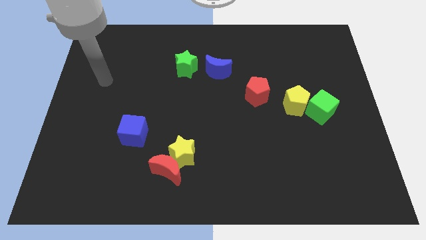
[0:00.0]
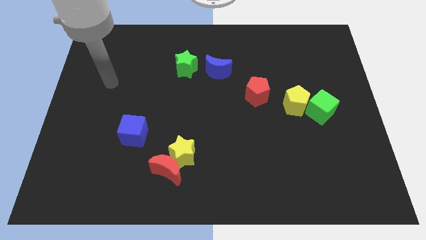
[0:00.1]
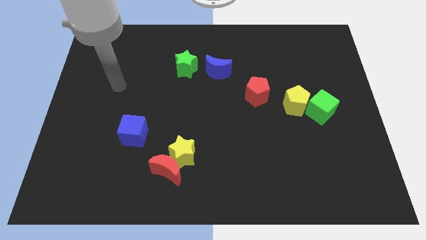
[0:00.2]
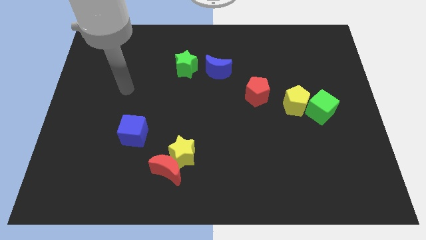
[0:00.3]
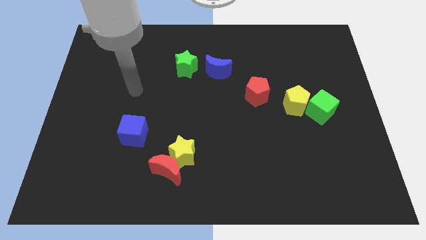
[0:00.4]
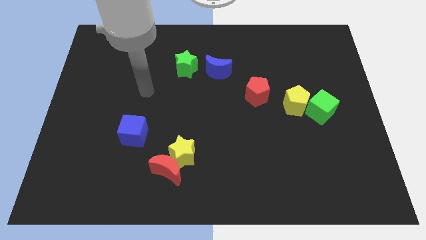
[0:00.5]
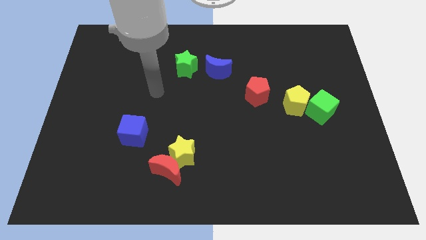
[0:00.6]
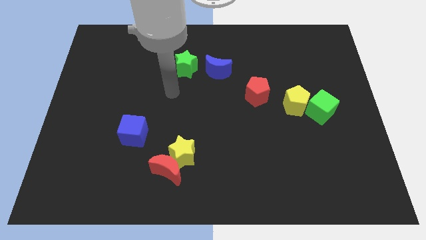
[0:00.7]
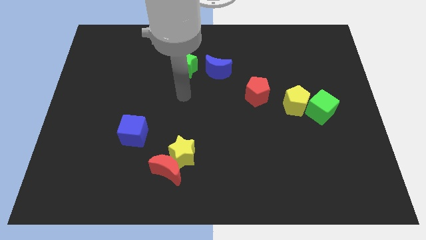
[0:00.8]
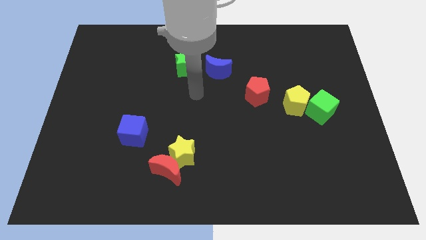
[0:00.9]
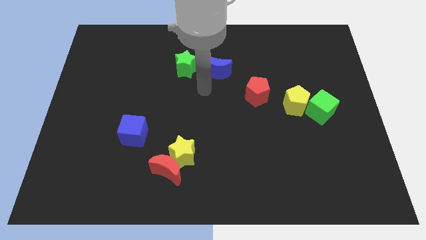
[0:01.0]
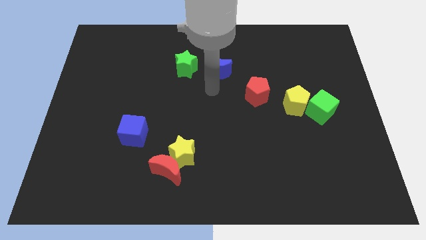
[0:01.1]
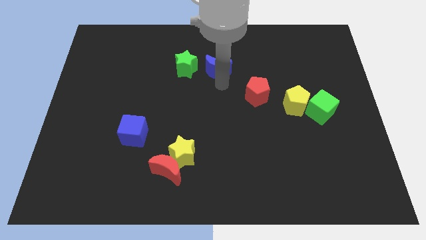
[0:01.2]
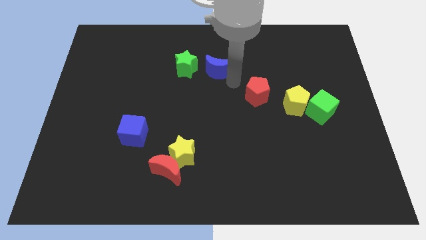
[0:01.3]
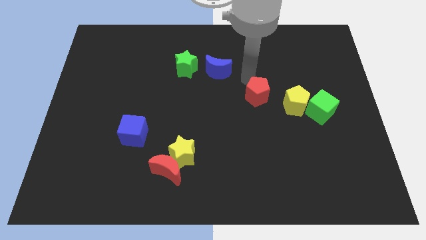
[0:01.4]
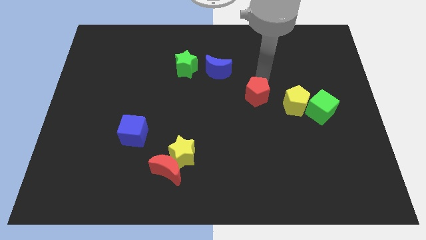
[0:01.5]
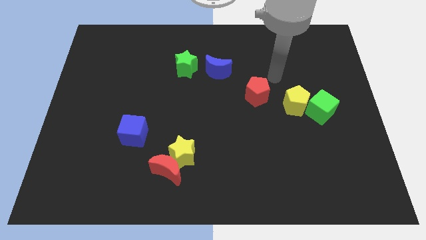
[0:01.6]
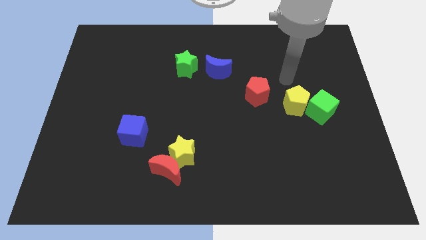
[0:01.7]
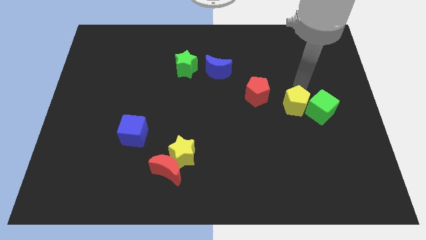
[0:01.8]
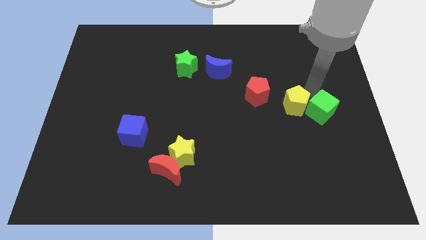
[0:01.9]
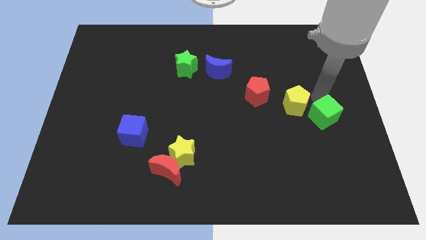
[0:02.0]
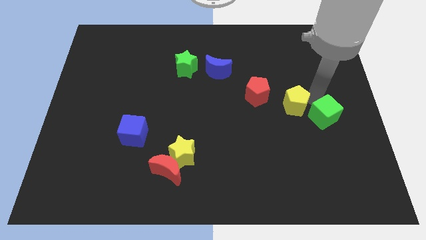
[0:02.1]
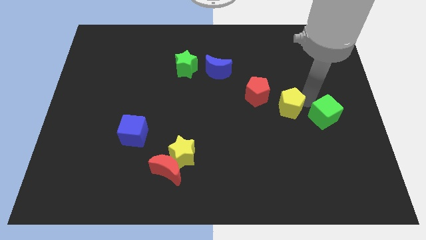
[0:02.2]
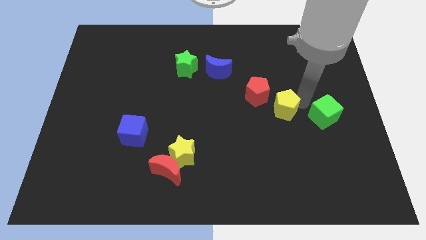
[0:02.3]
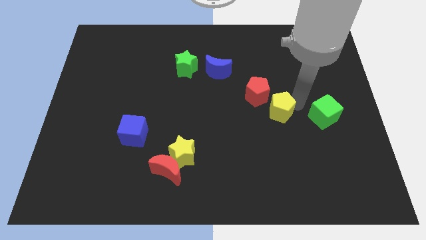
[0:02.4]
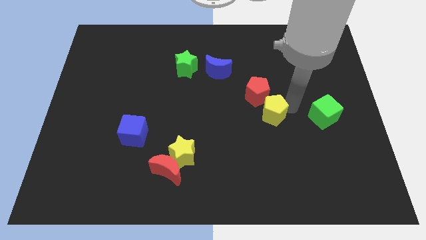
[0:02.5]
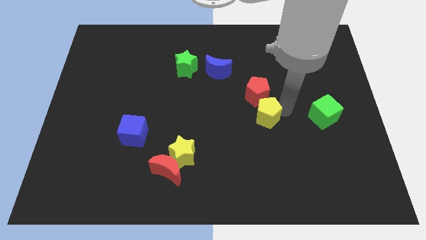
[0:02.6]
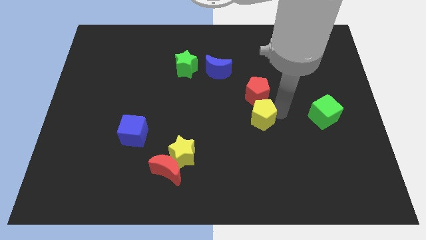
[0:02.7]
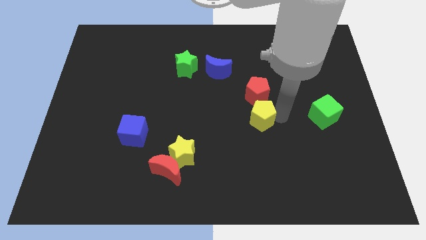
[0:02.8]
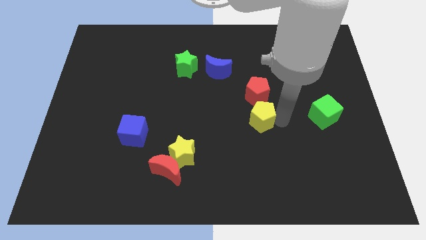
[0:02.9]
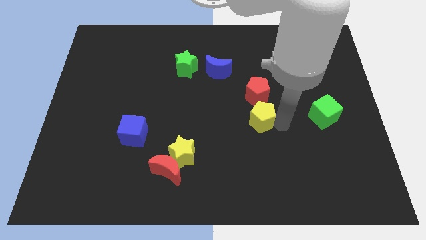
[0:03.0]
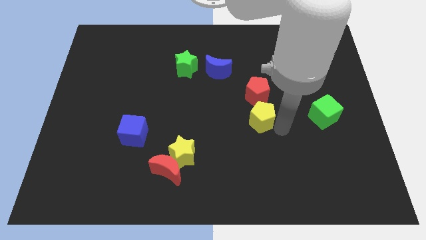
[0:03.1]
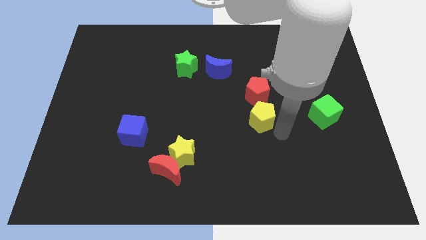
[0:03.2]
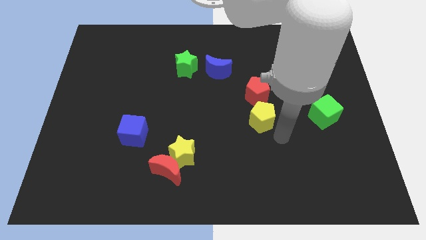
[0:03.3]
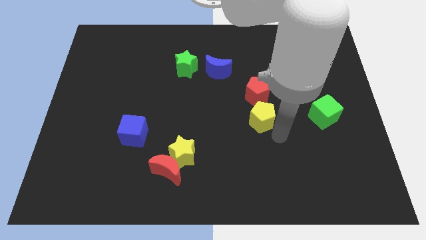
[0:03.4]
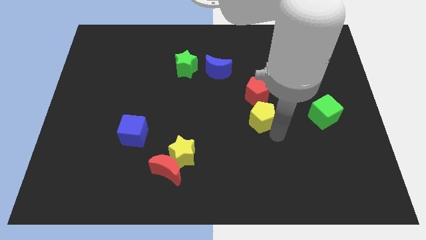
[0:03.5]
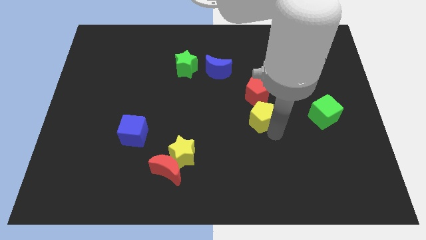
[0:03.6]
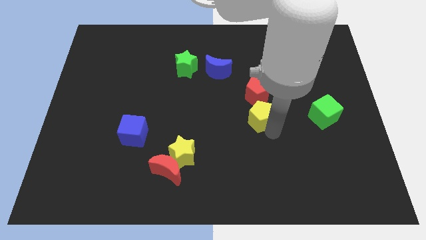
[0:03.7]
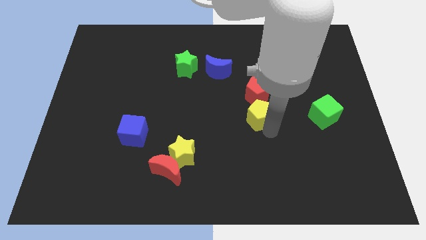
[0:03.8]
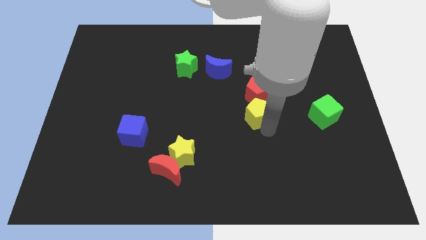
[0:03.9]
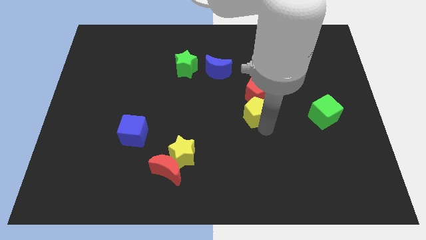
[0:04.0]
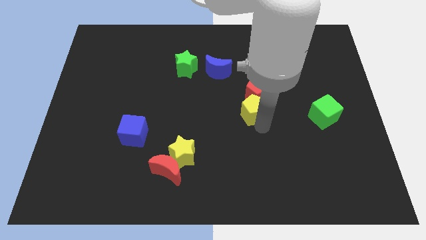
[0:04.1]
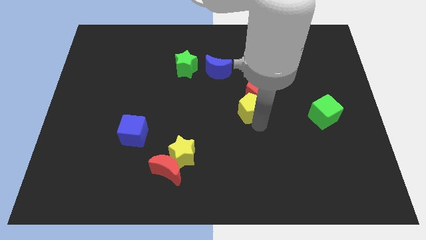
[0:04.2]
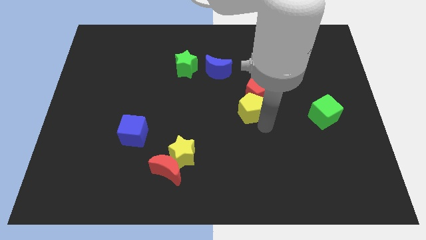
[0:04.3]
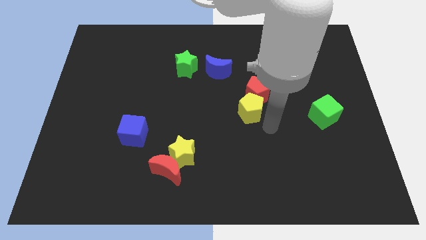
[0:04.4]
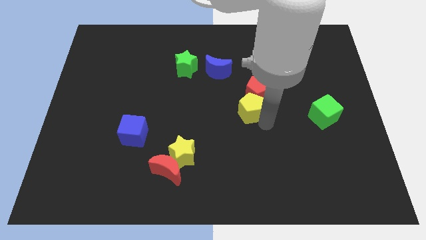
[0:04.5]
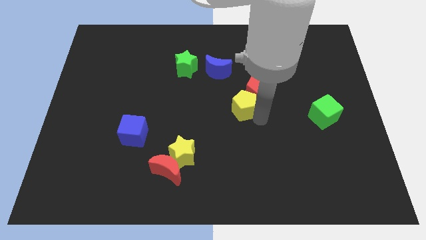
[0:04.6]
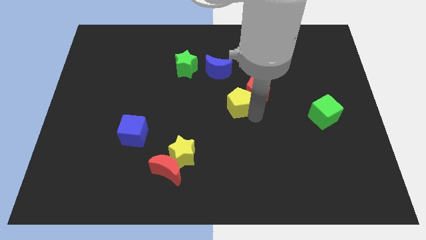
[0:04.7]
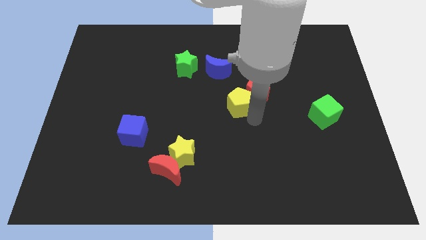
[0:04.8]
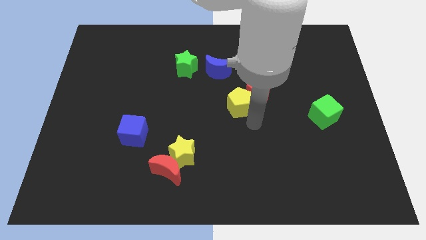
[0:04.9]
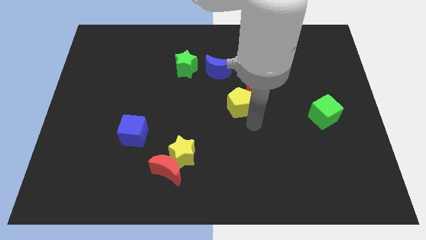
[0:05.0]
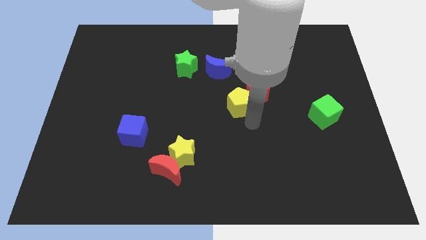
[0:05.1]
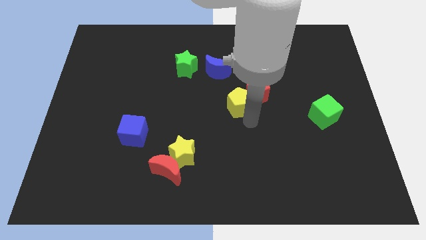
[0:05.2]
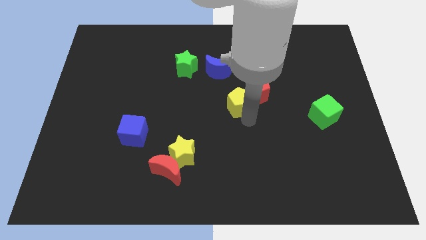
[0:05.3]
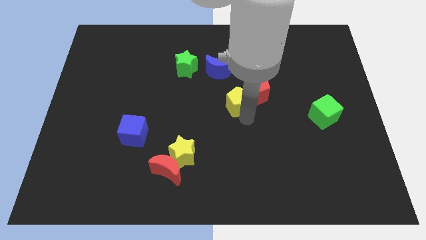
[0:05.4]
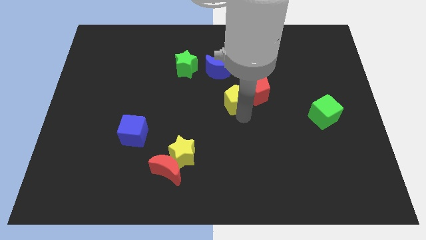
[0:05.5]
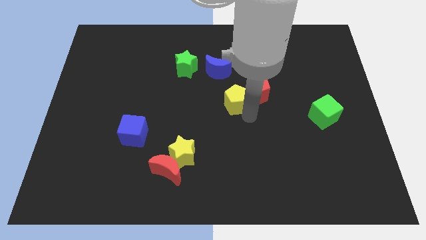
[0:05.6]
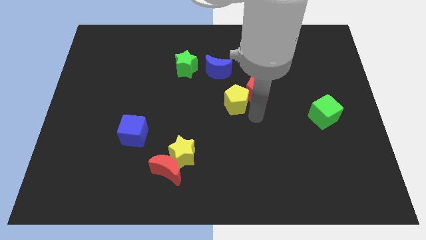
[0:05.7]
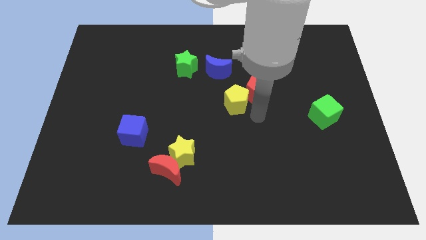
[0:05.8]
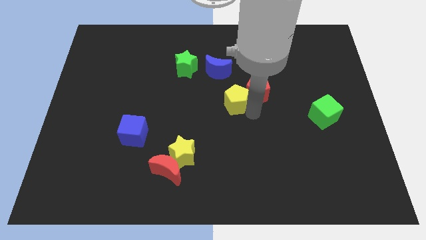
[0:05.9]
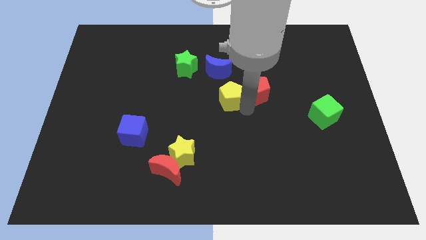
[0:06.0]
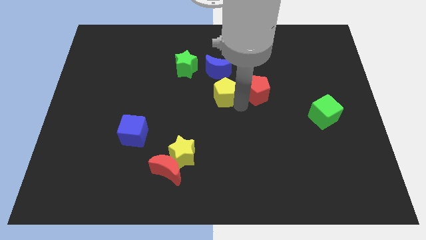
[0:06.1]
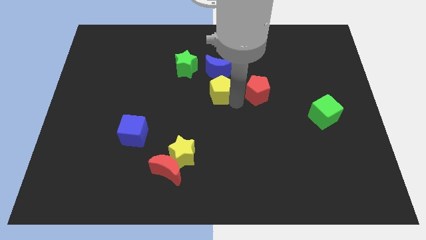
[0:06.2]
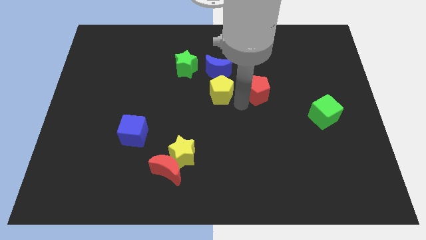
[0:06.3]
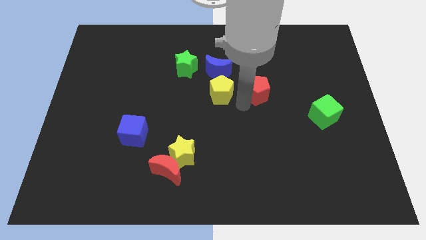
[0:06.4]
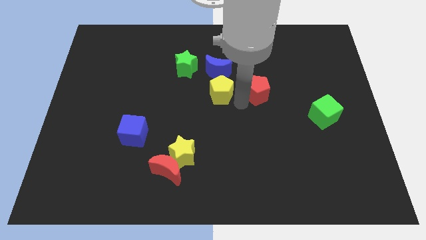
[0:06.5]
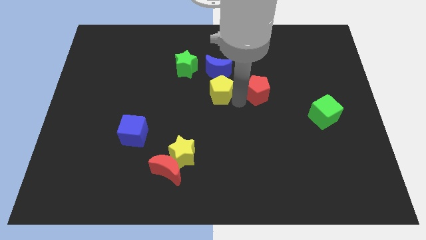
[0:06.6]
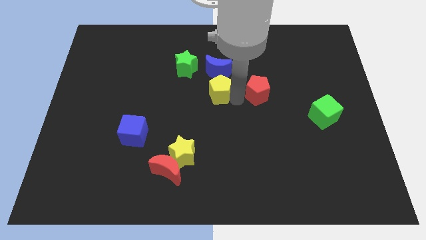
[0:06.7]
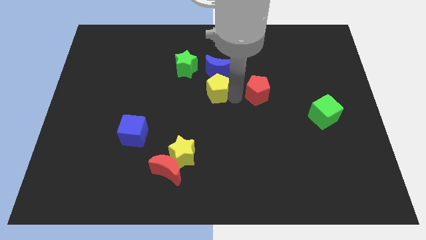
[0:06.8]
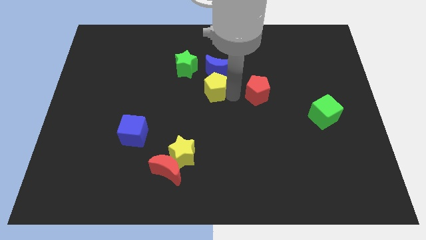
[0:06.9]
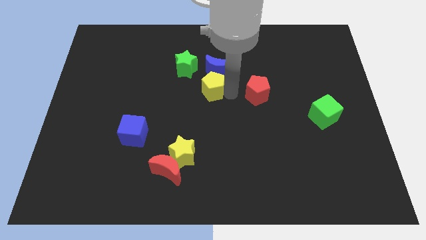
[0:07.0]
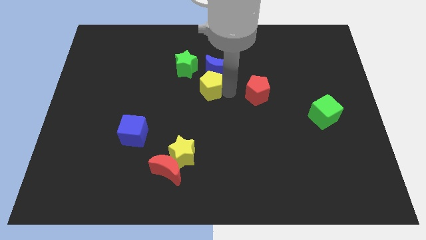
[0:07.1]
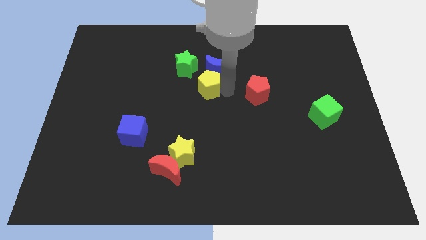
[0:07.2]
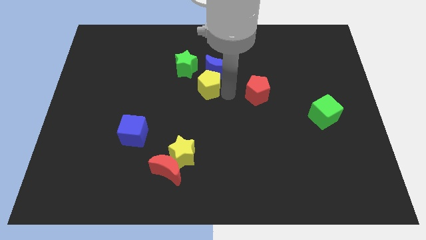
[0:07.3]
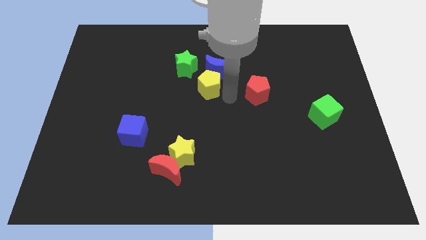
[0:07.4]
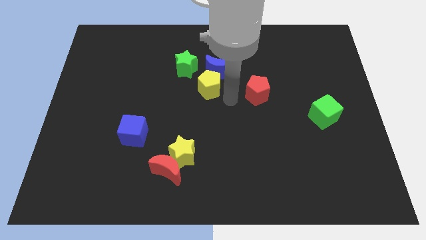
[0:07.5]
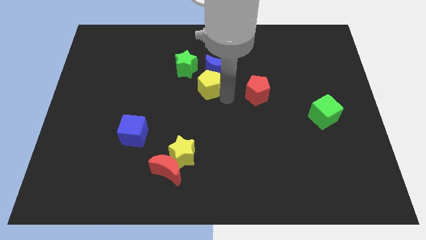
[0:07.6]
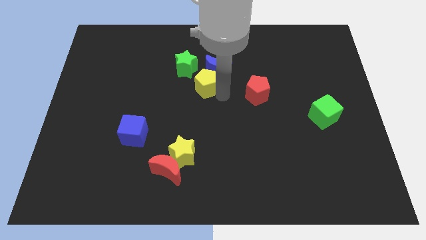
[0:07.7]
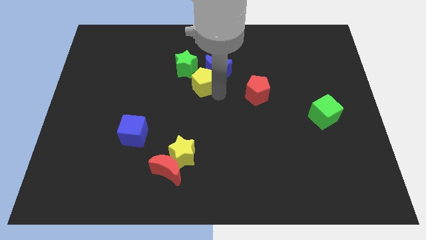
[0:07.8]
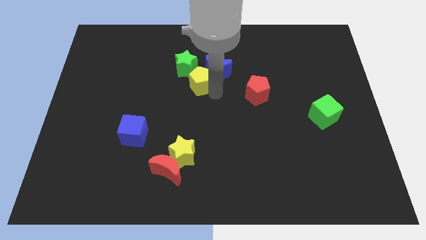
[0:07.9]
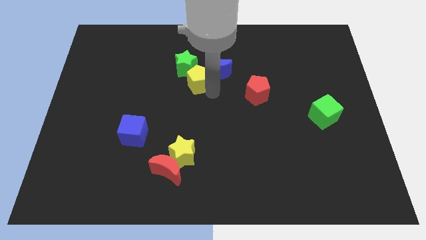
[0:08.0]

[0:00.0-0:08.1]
slide the yellow pentagon close to the green star
